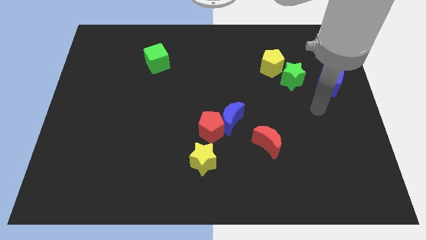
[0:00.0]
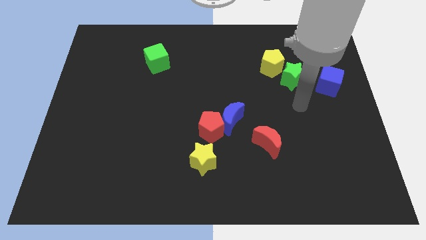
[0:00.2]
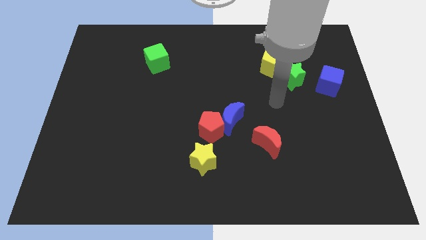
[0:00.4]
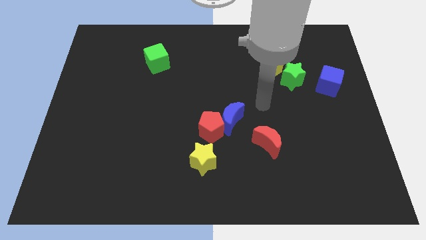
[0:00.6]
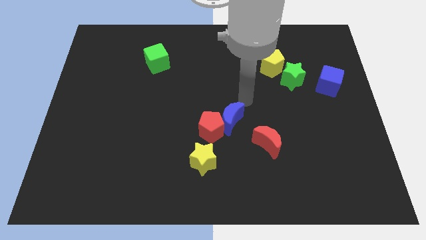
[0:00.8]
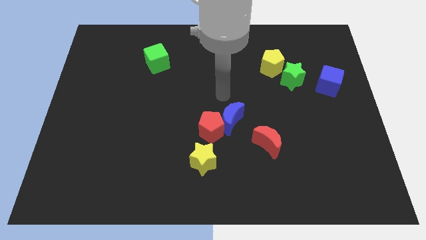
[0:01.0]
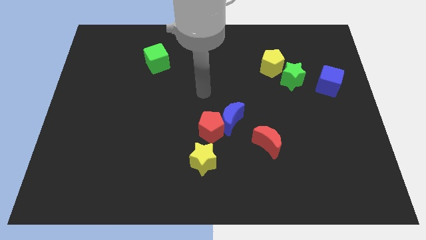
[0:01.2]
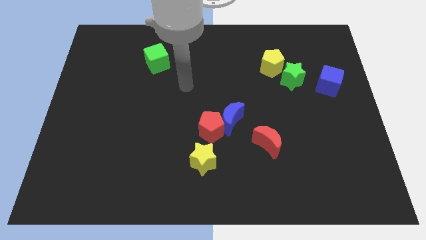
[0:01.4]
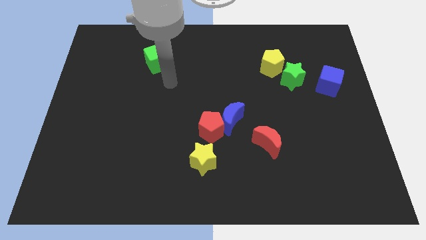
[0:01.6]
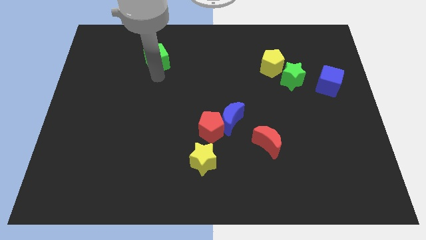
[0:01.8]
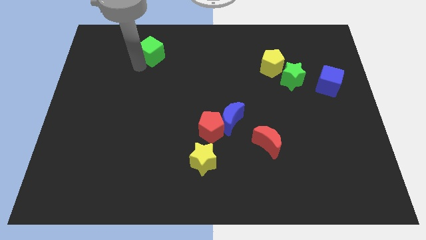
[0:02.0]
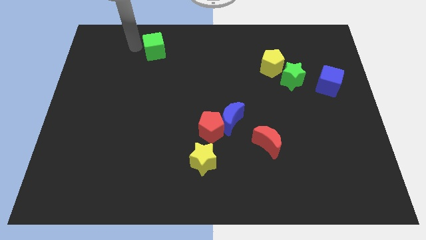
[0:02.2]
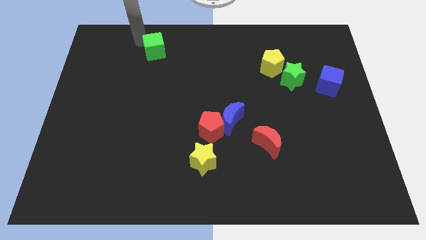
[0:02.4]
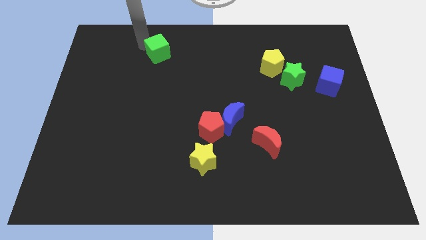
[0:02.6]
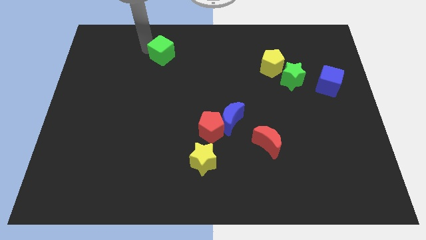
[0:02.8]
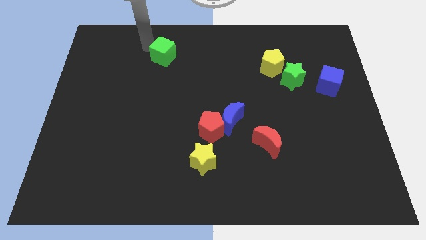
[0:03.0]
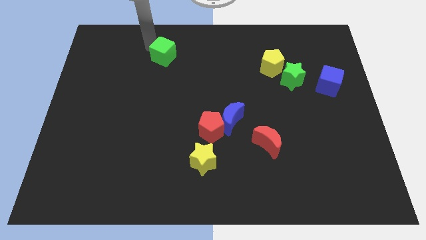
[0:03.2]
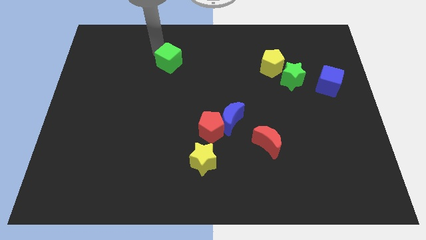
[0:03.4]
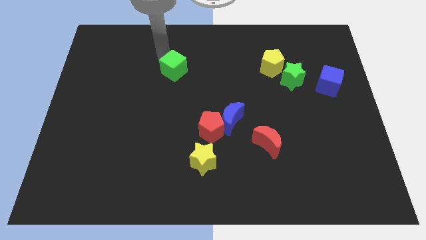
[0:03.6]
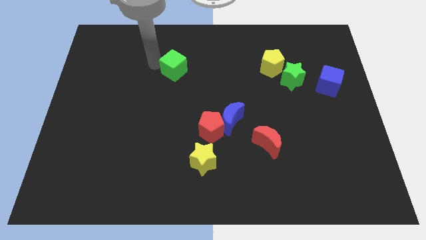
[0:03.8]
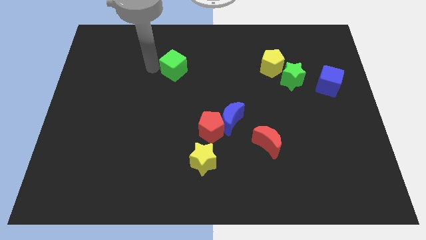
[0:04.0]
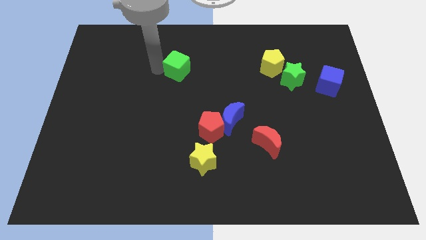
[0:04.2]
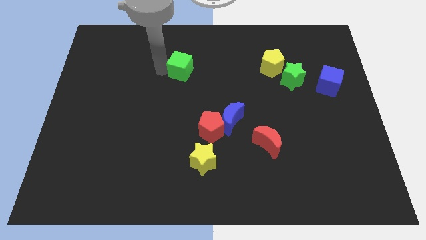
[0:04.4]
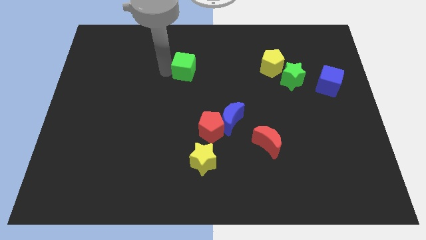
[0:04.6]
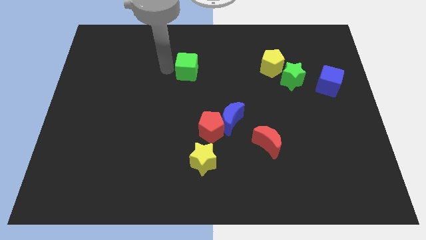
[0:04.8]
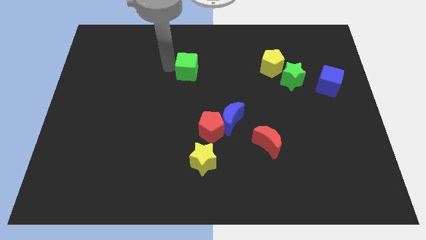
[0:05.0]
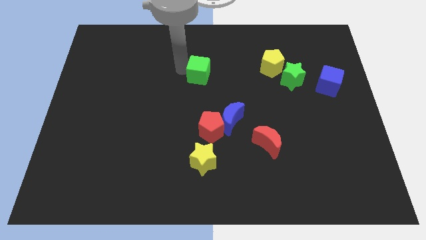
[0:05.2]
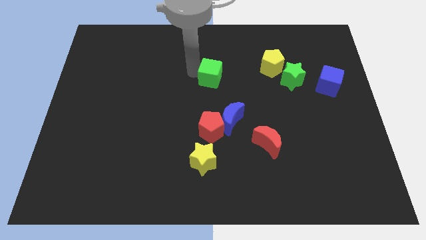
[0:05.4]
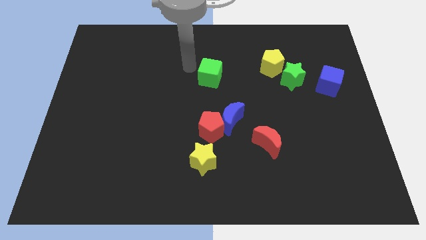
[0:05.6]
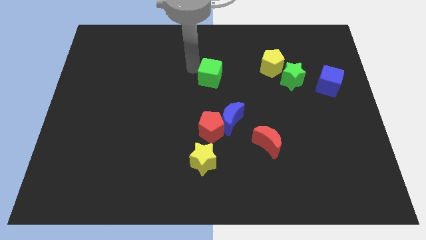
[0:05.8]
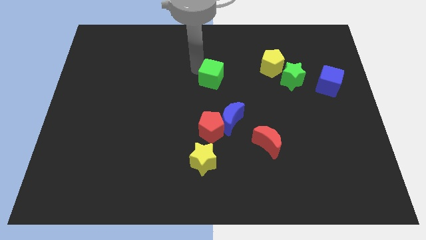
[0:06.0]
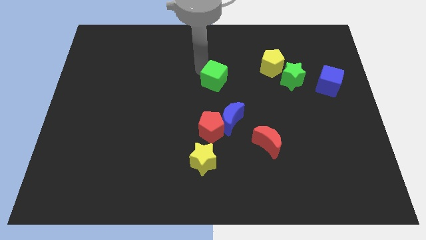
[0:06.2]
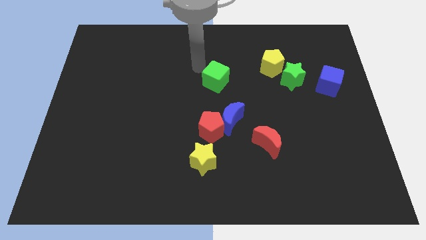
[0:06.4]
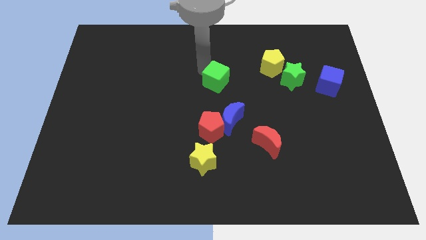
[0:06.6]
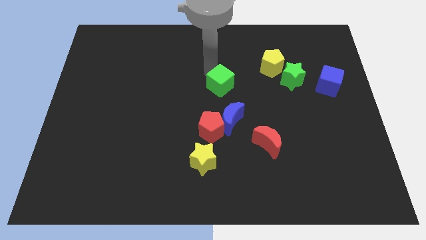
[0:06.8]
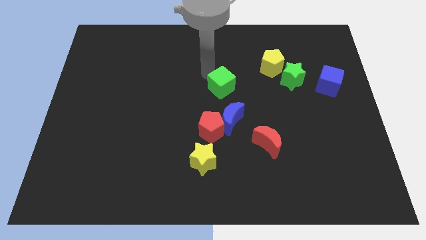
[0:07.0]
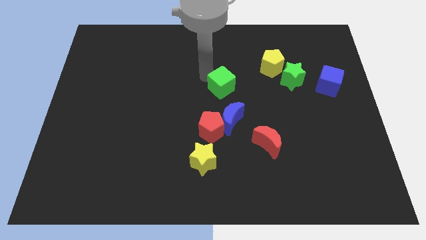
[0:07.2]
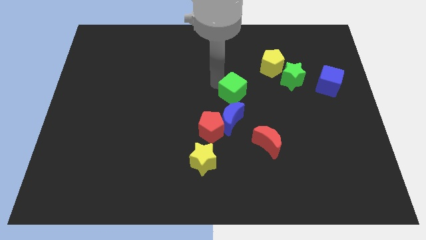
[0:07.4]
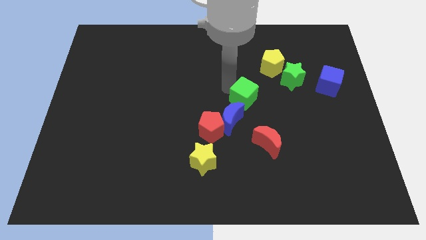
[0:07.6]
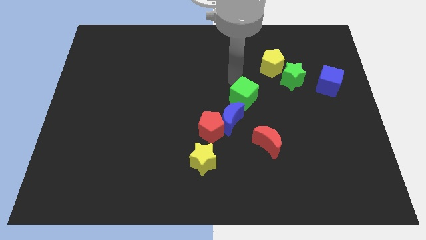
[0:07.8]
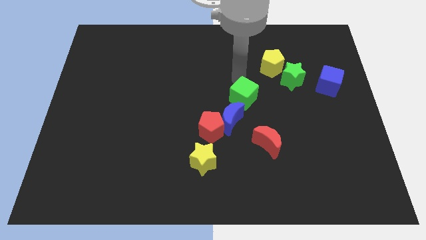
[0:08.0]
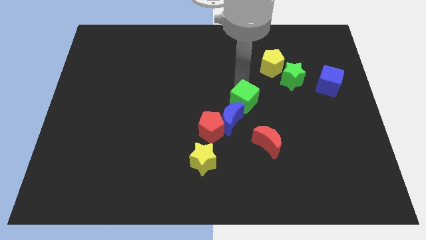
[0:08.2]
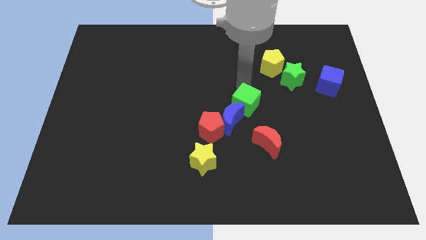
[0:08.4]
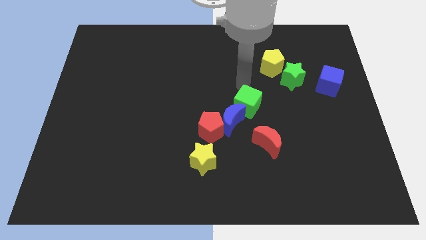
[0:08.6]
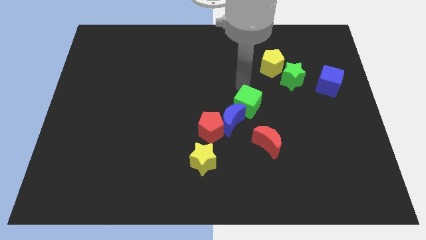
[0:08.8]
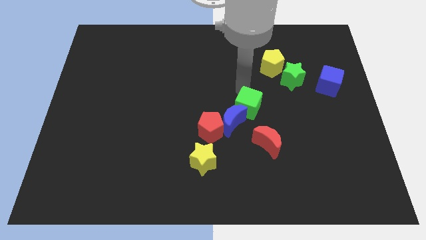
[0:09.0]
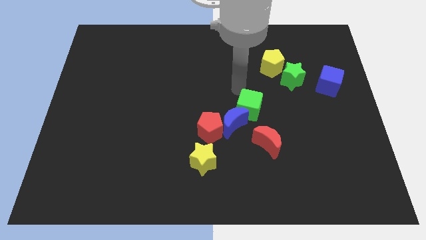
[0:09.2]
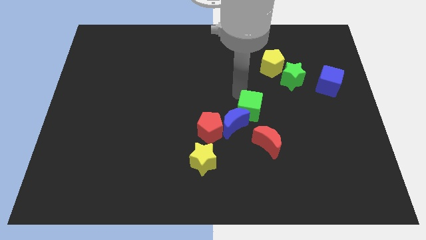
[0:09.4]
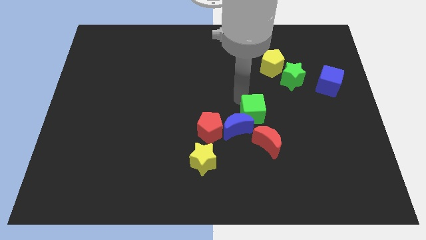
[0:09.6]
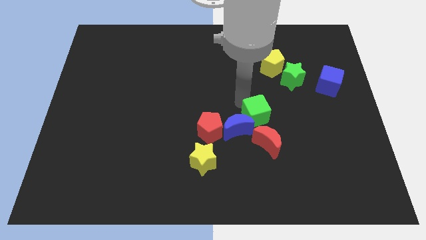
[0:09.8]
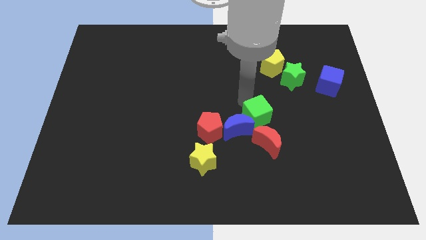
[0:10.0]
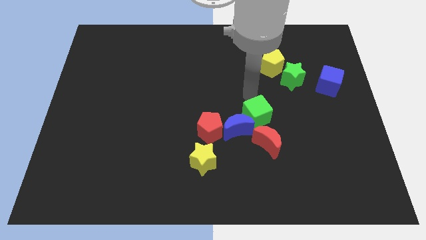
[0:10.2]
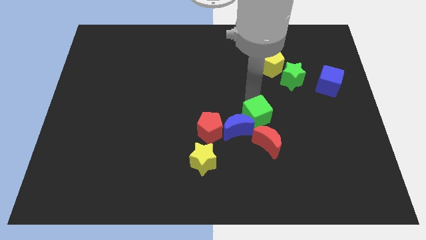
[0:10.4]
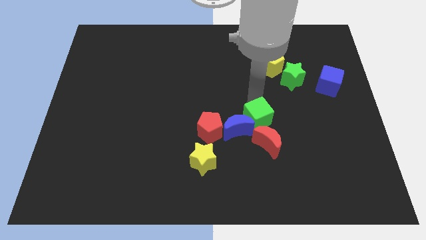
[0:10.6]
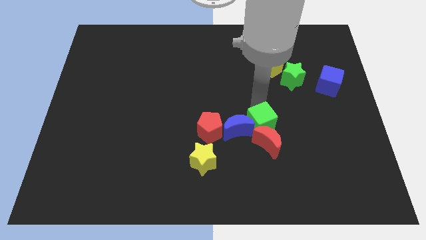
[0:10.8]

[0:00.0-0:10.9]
put the green cube towards the red moon

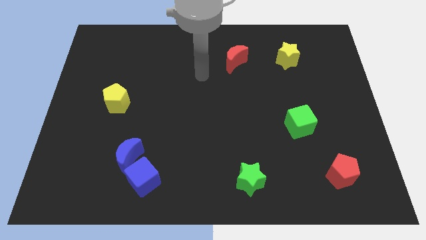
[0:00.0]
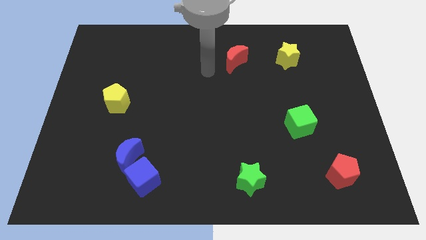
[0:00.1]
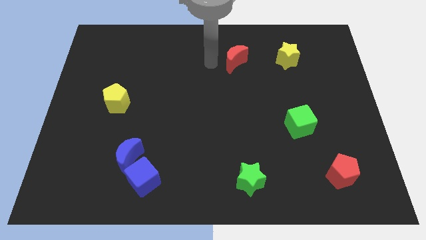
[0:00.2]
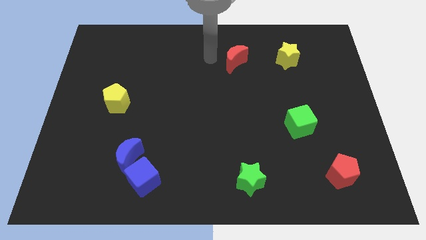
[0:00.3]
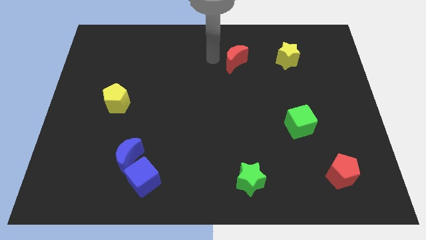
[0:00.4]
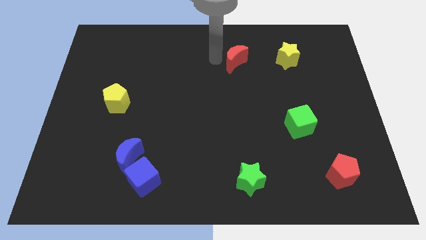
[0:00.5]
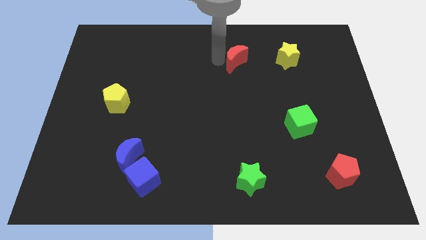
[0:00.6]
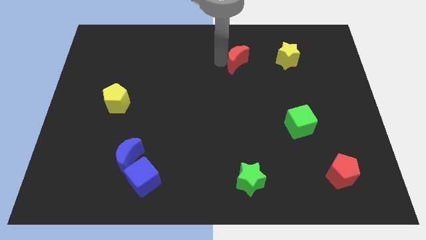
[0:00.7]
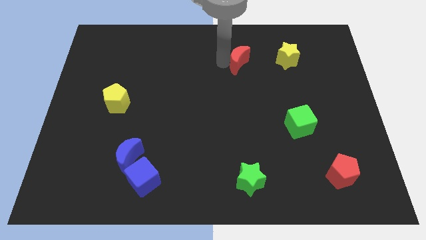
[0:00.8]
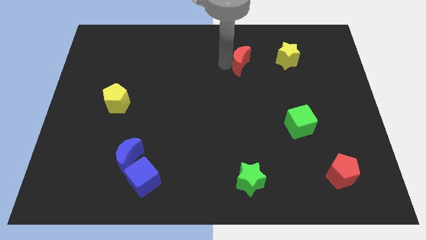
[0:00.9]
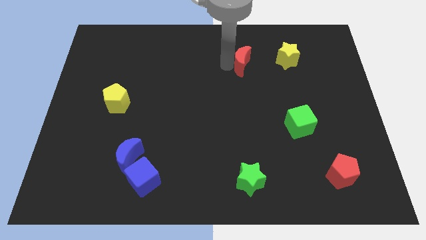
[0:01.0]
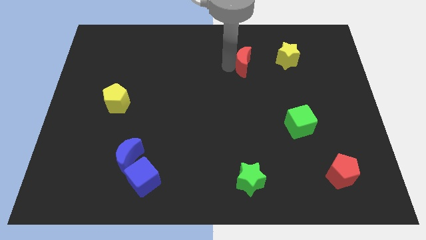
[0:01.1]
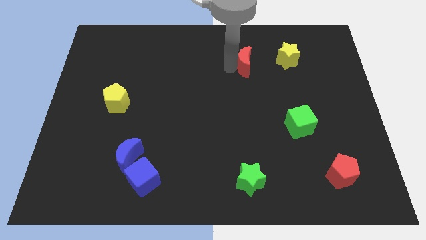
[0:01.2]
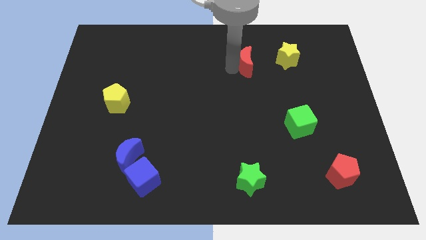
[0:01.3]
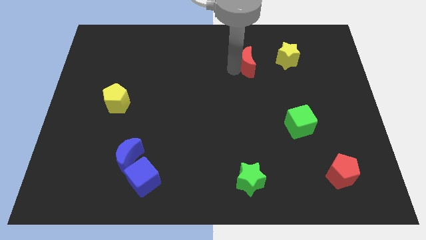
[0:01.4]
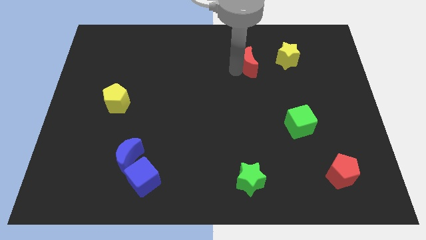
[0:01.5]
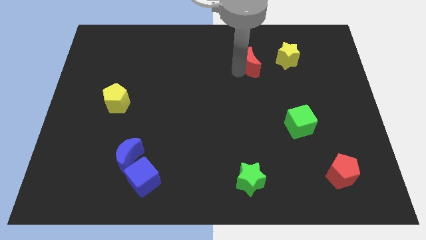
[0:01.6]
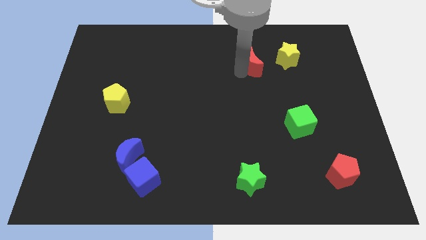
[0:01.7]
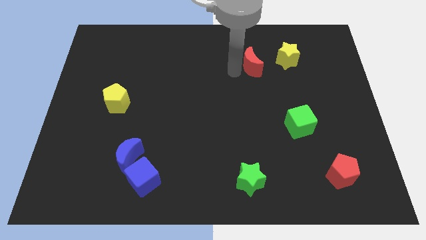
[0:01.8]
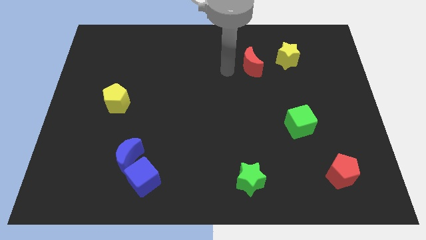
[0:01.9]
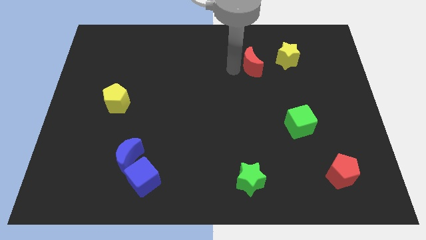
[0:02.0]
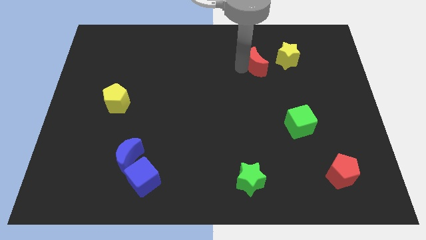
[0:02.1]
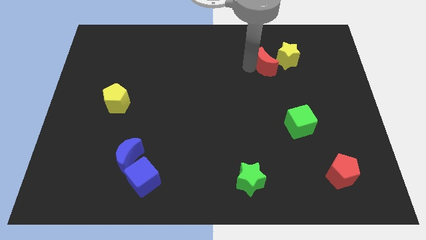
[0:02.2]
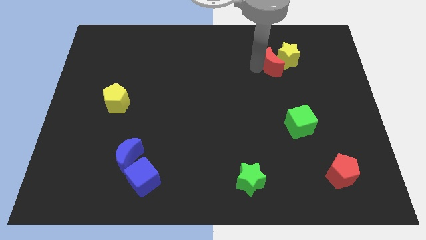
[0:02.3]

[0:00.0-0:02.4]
push the red moon close to the yellow star
